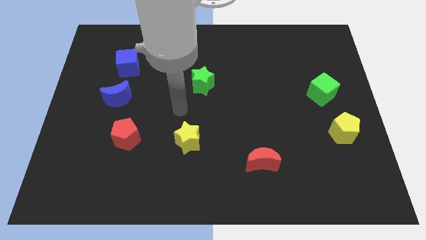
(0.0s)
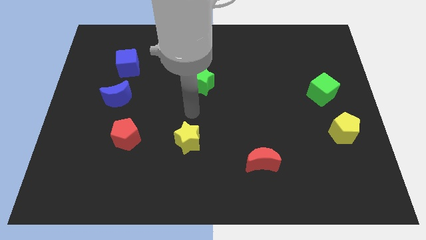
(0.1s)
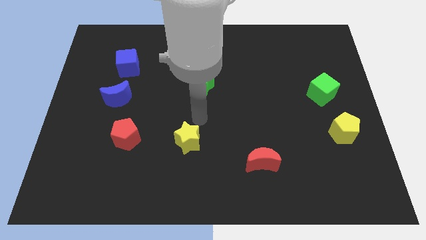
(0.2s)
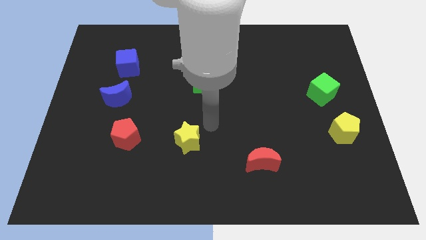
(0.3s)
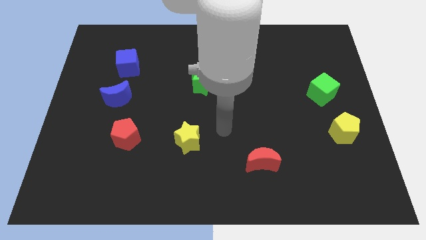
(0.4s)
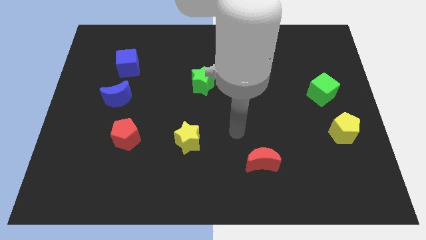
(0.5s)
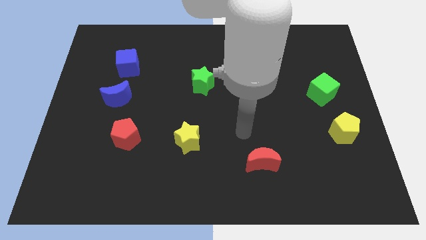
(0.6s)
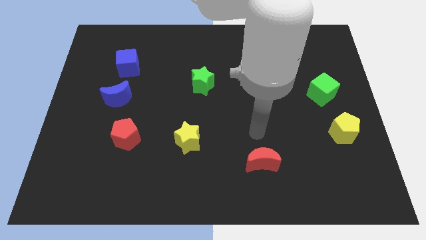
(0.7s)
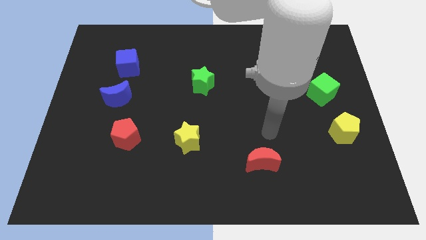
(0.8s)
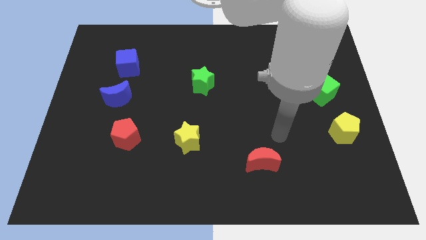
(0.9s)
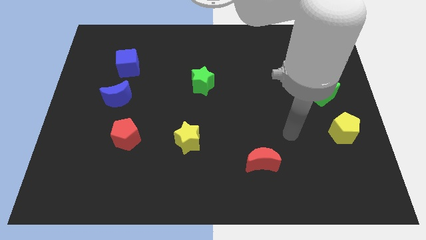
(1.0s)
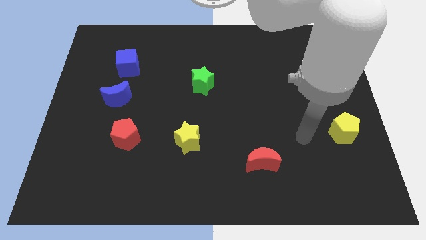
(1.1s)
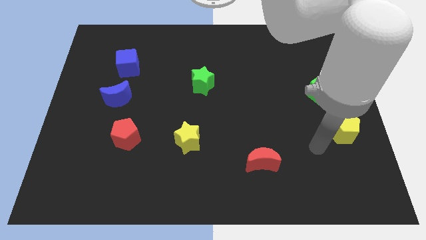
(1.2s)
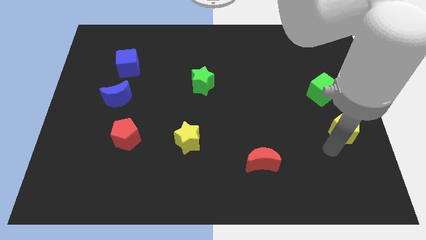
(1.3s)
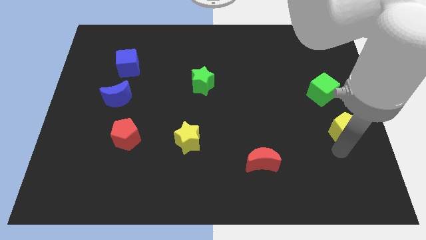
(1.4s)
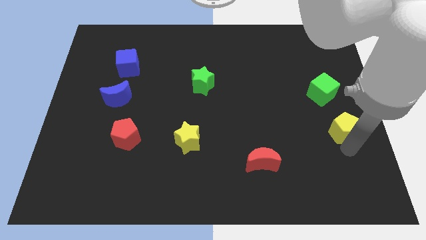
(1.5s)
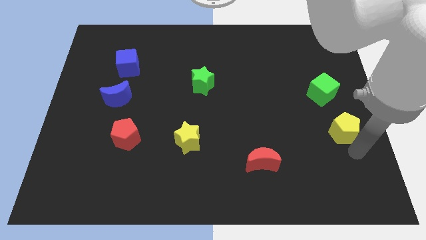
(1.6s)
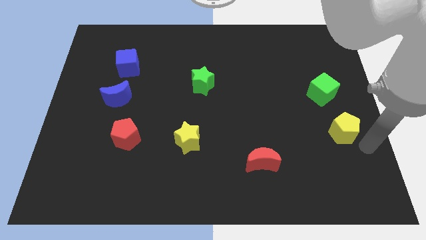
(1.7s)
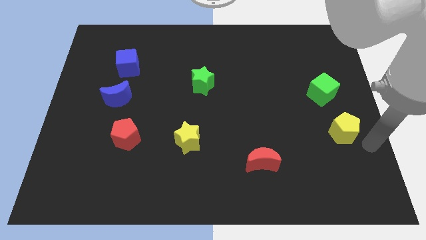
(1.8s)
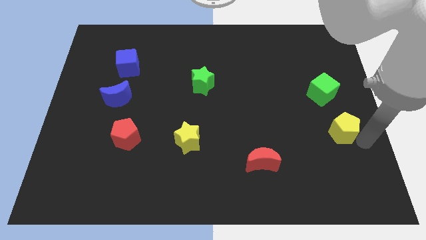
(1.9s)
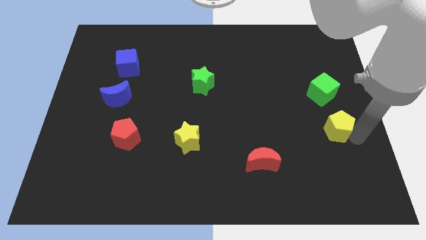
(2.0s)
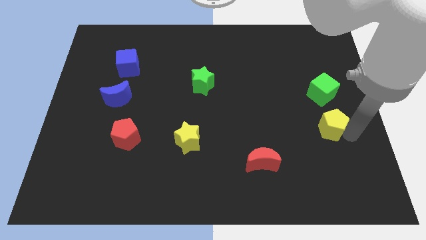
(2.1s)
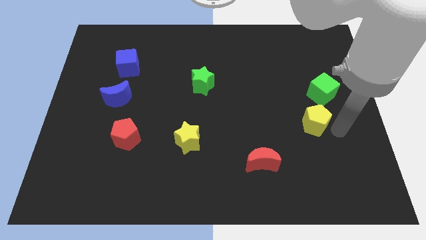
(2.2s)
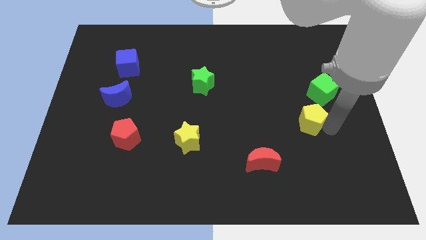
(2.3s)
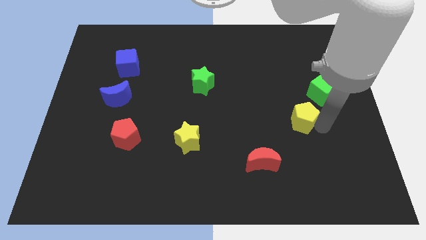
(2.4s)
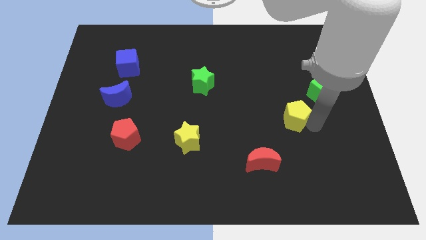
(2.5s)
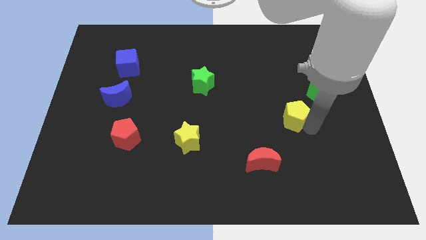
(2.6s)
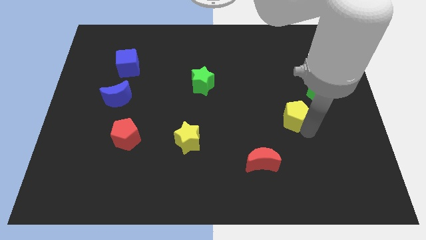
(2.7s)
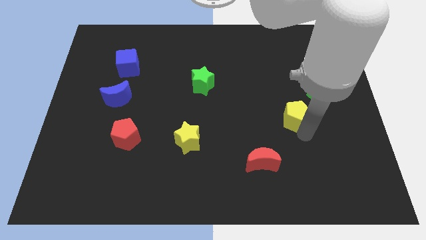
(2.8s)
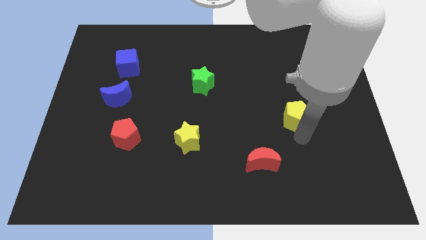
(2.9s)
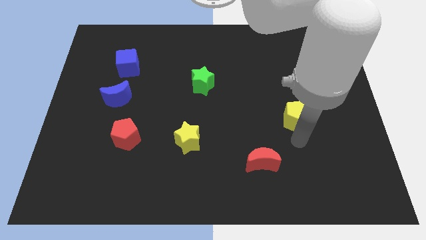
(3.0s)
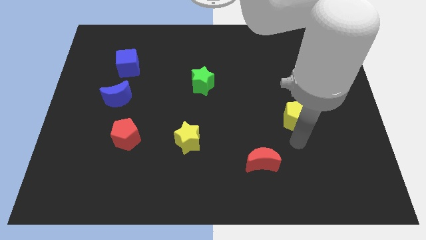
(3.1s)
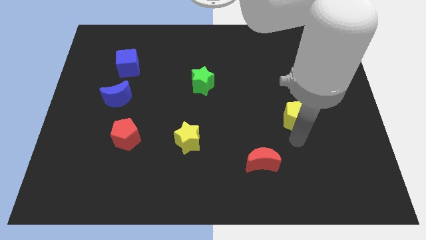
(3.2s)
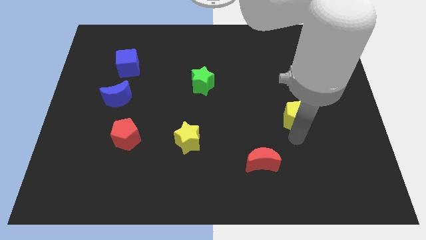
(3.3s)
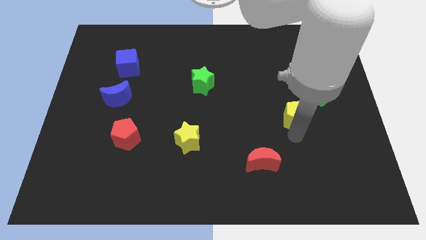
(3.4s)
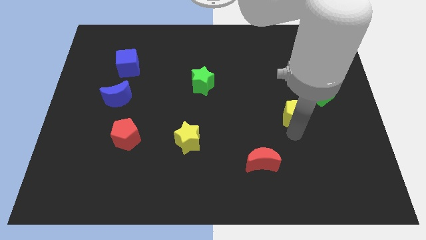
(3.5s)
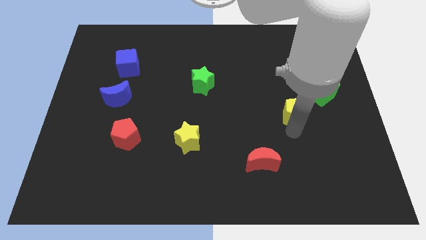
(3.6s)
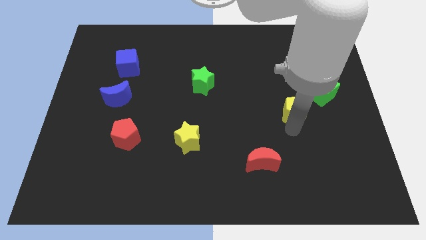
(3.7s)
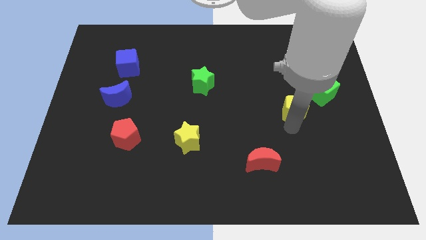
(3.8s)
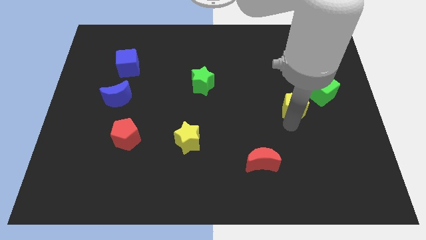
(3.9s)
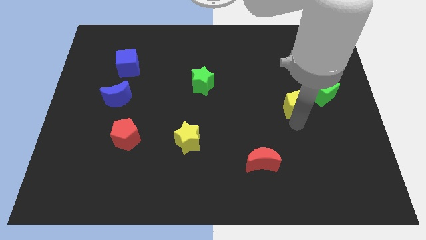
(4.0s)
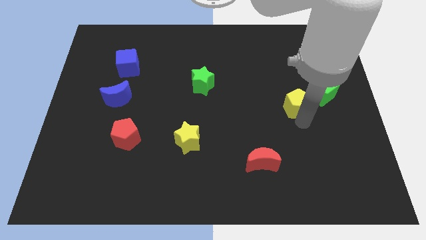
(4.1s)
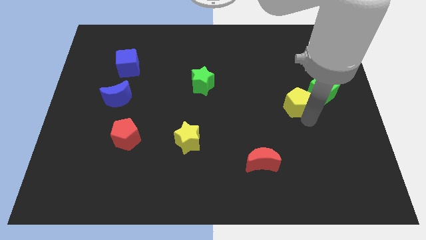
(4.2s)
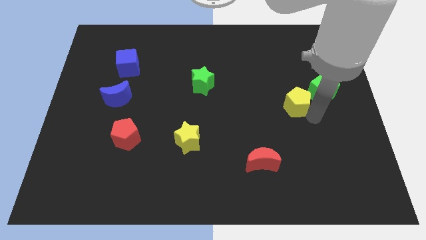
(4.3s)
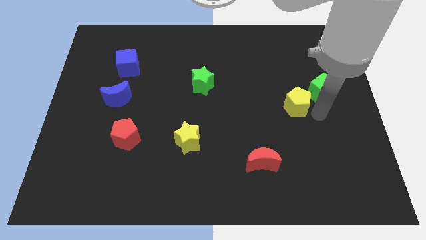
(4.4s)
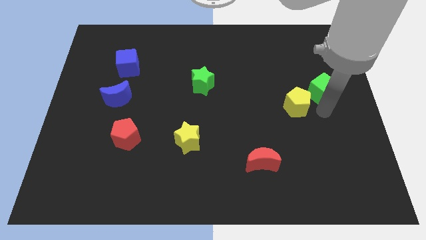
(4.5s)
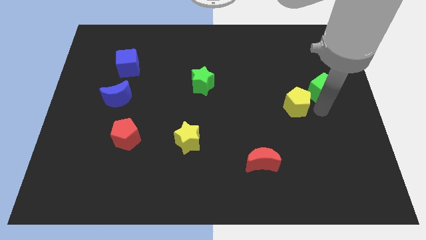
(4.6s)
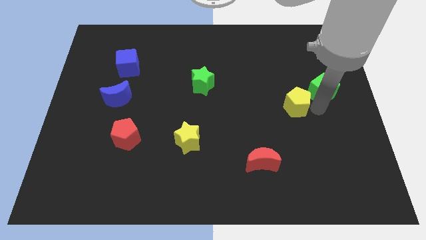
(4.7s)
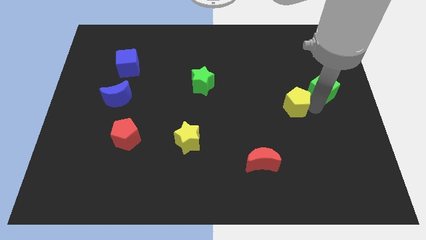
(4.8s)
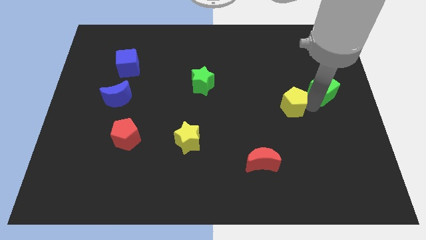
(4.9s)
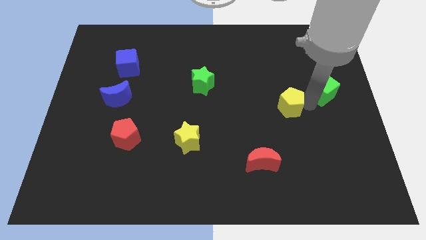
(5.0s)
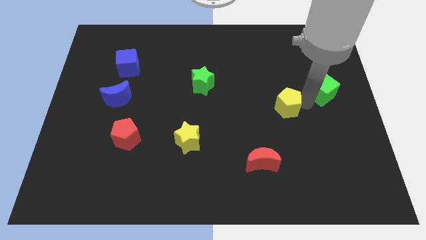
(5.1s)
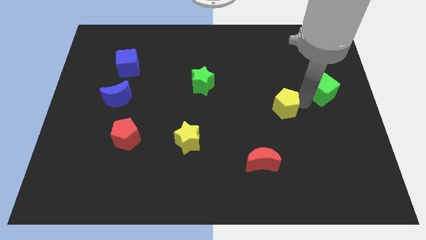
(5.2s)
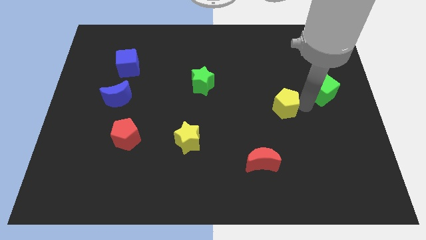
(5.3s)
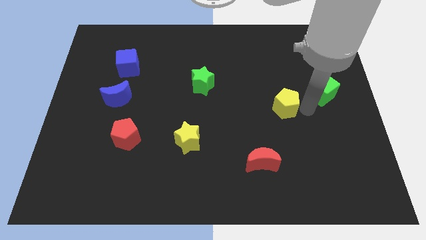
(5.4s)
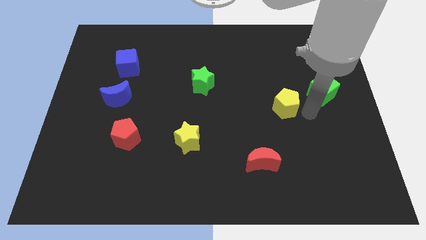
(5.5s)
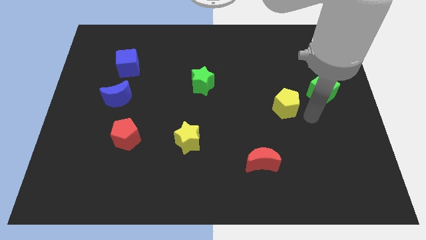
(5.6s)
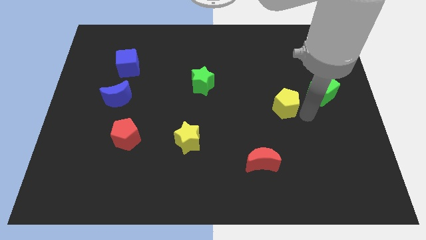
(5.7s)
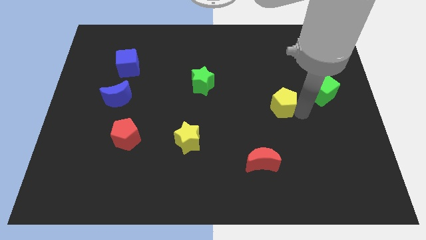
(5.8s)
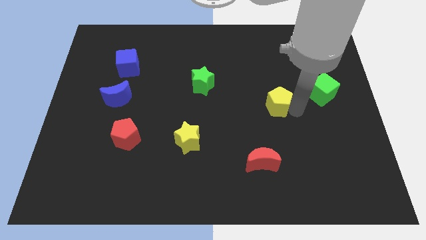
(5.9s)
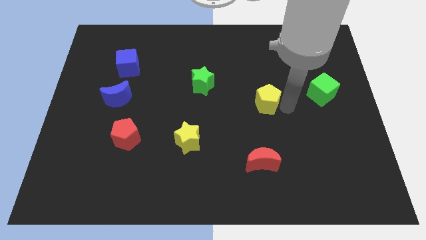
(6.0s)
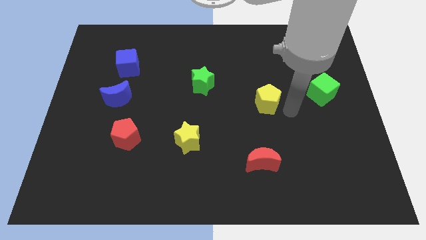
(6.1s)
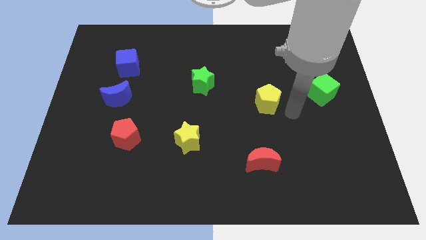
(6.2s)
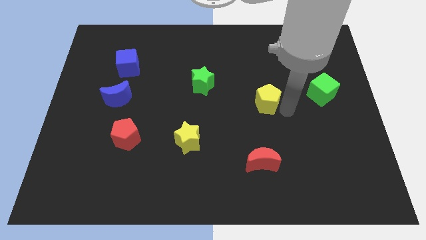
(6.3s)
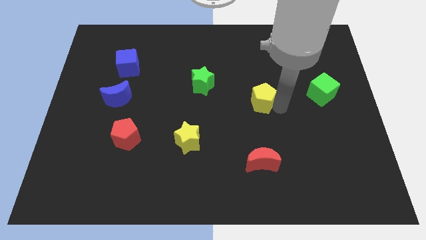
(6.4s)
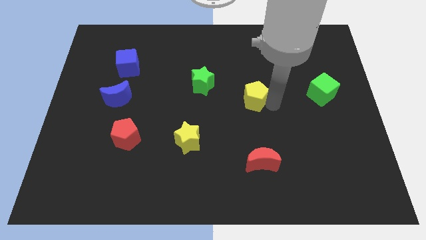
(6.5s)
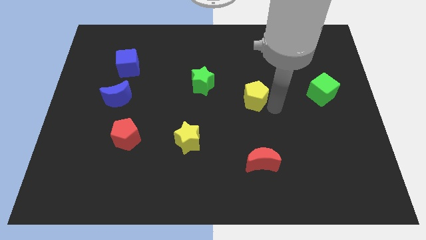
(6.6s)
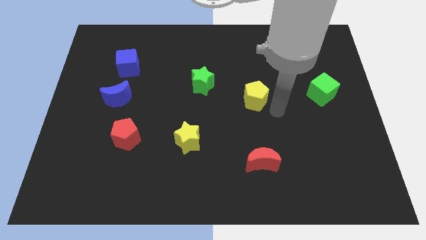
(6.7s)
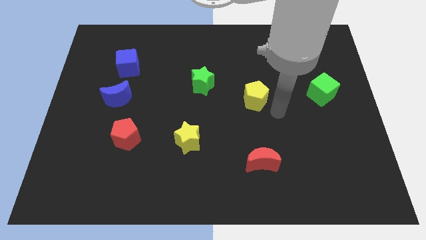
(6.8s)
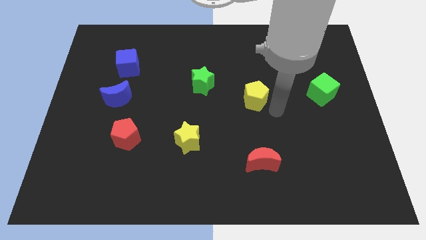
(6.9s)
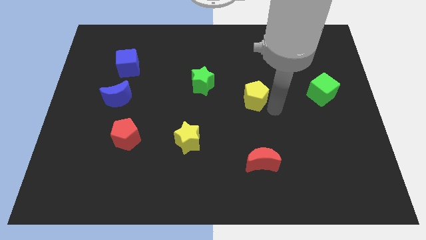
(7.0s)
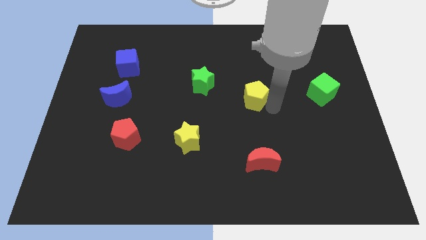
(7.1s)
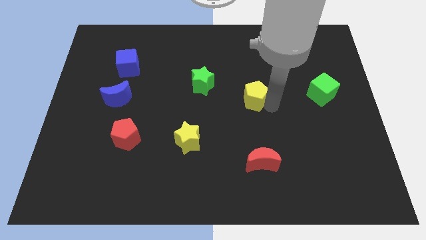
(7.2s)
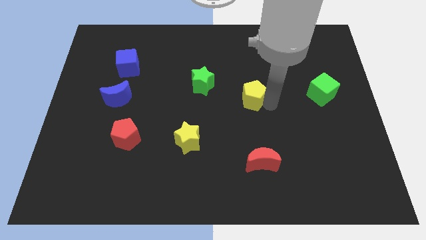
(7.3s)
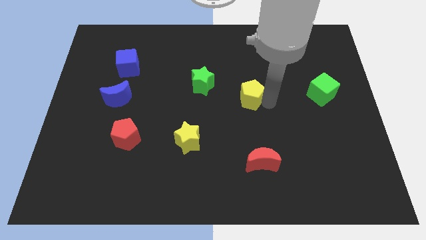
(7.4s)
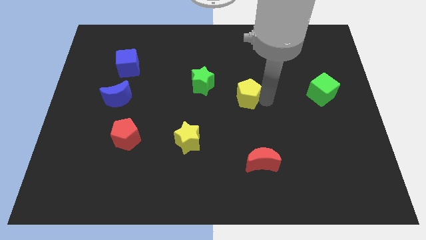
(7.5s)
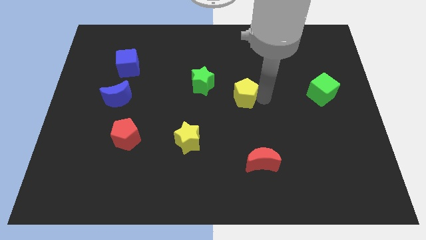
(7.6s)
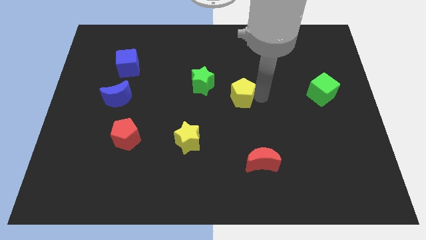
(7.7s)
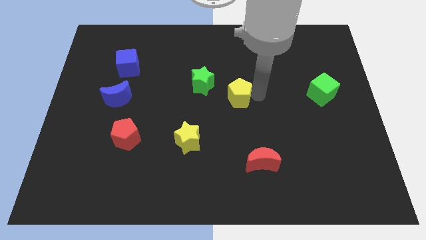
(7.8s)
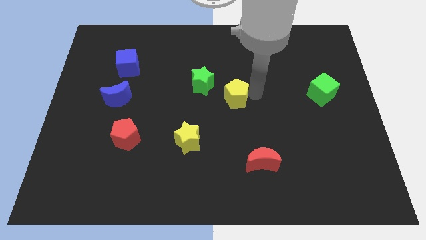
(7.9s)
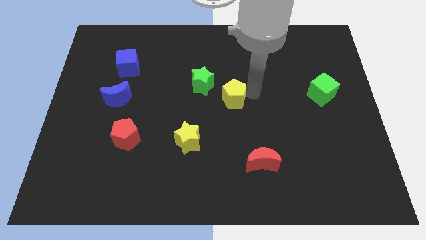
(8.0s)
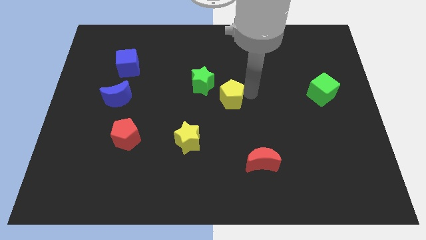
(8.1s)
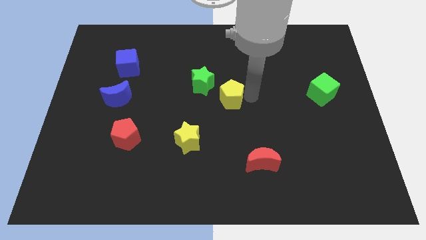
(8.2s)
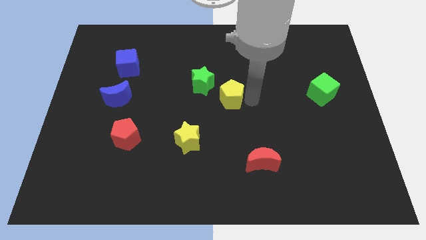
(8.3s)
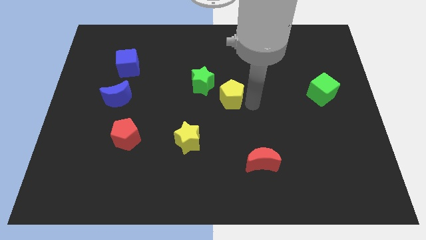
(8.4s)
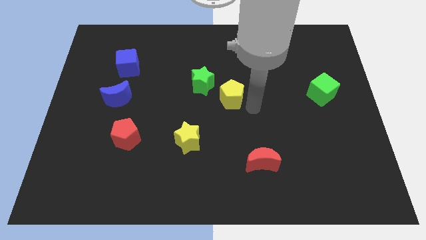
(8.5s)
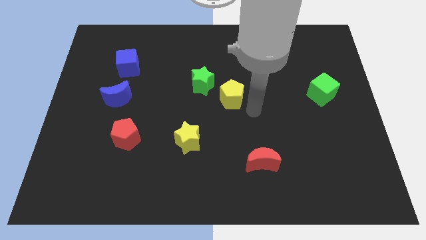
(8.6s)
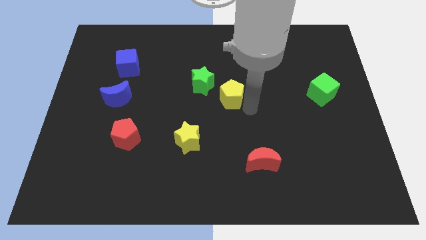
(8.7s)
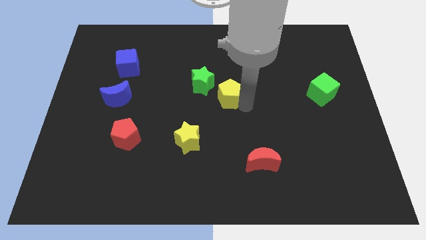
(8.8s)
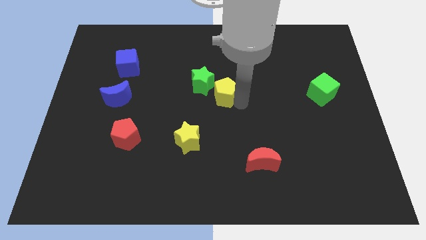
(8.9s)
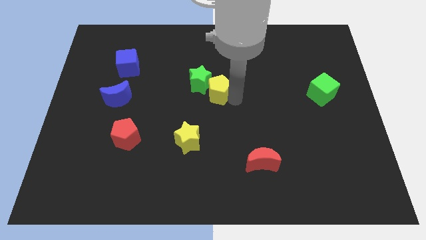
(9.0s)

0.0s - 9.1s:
move the yellow pentagon to the green star
